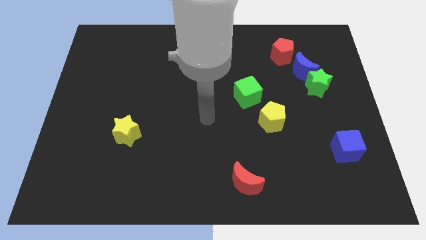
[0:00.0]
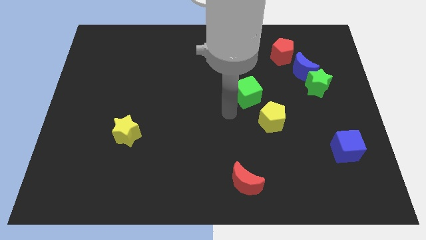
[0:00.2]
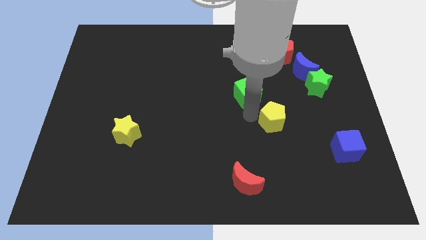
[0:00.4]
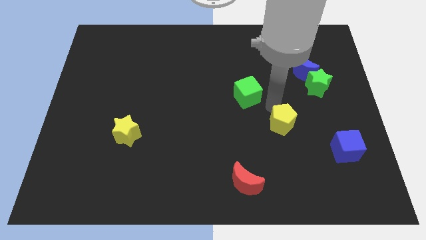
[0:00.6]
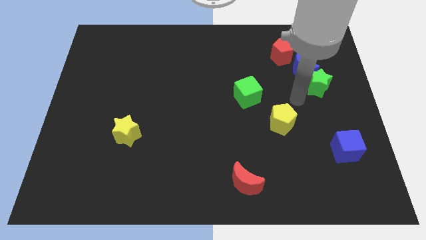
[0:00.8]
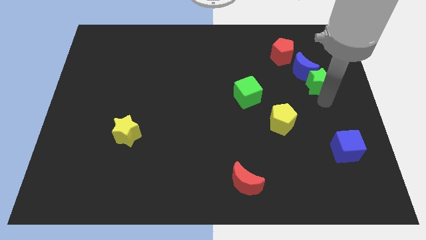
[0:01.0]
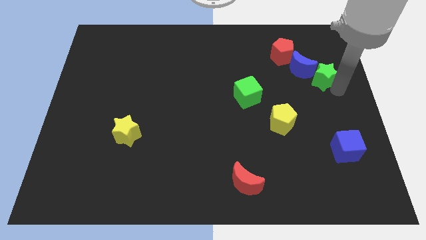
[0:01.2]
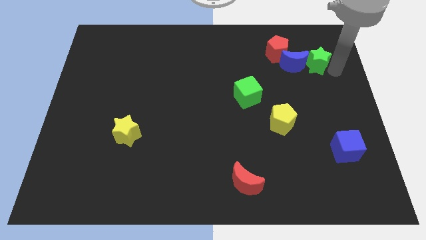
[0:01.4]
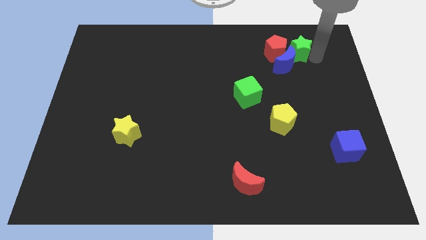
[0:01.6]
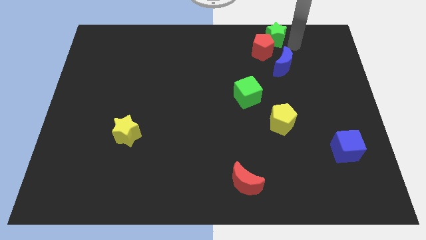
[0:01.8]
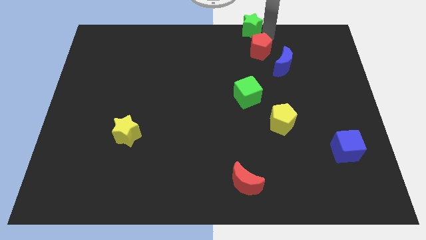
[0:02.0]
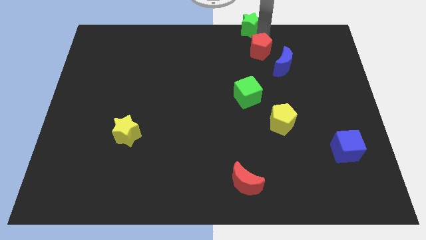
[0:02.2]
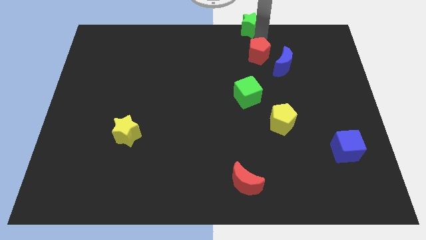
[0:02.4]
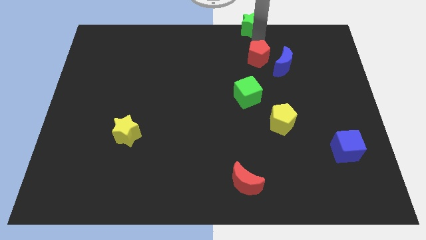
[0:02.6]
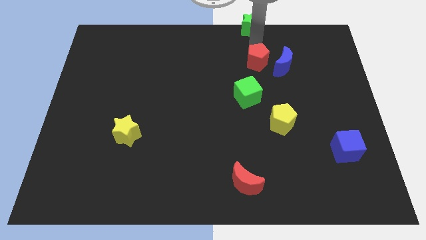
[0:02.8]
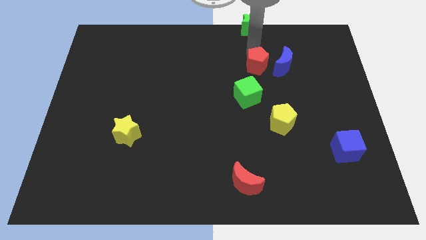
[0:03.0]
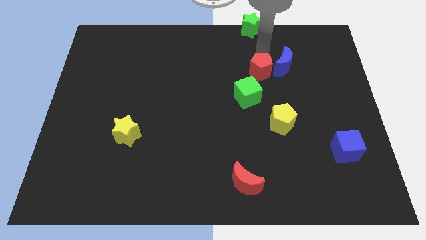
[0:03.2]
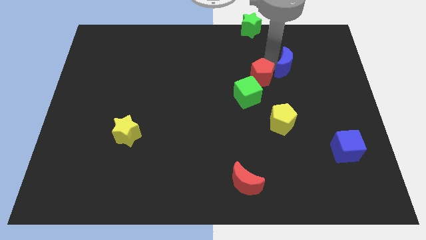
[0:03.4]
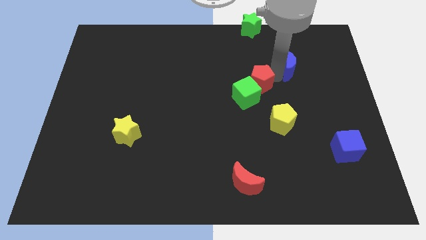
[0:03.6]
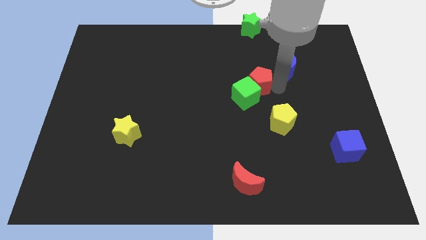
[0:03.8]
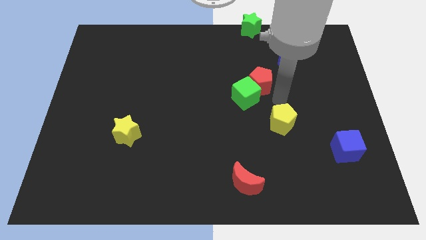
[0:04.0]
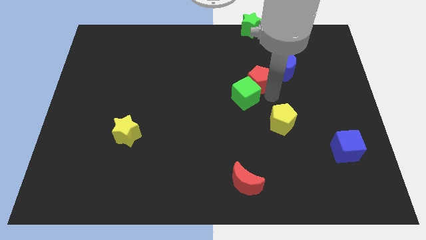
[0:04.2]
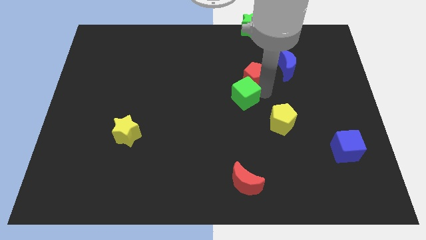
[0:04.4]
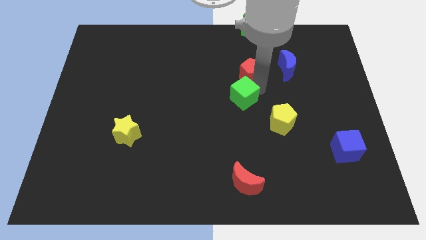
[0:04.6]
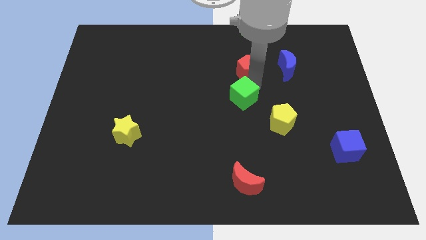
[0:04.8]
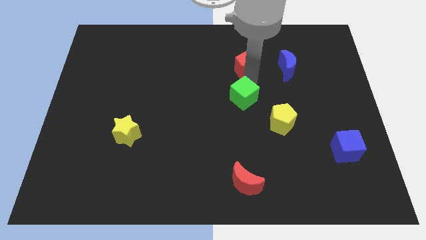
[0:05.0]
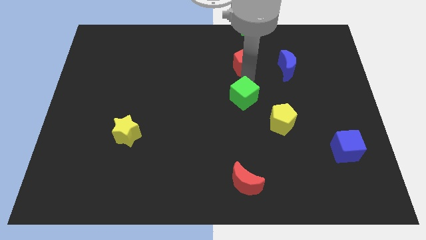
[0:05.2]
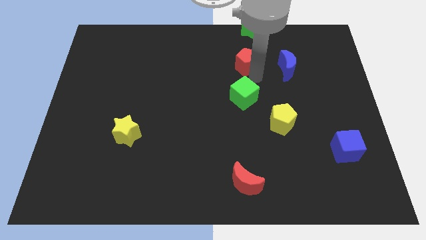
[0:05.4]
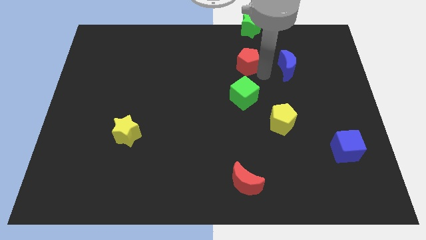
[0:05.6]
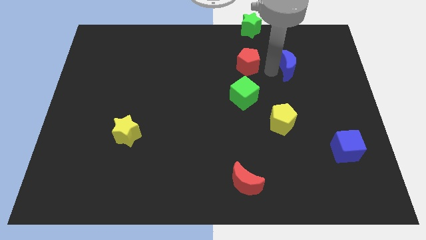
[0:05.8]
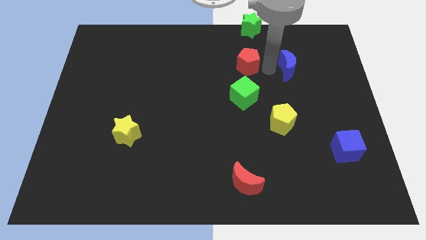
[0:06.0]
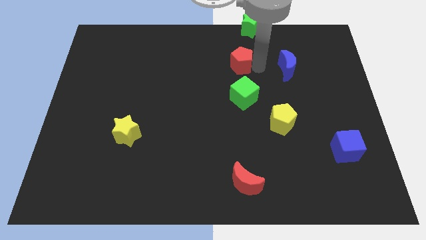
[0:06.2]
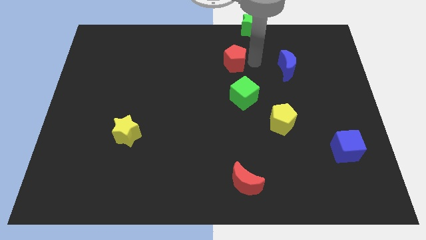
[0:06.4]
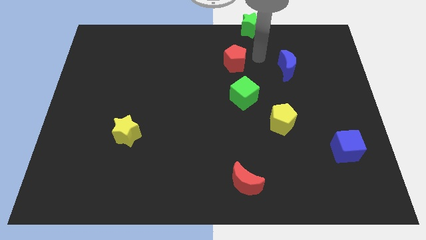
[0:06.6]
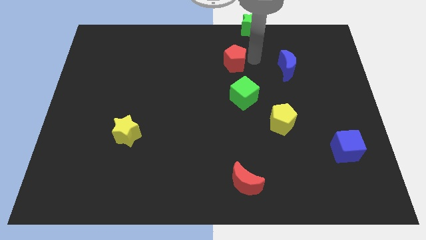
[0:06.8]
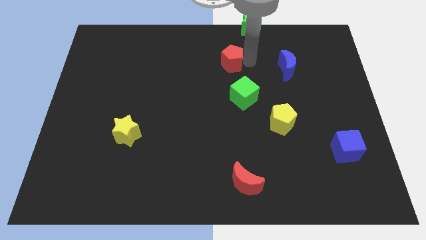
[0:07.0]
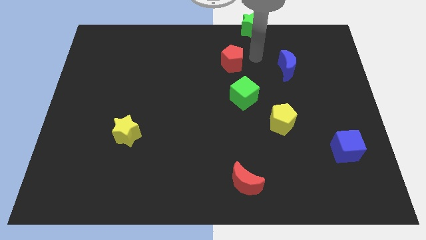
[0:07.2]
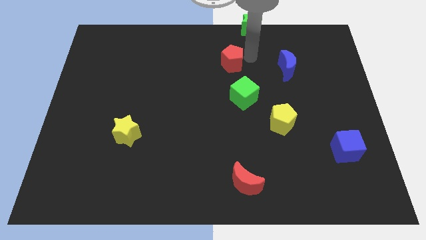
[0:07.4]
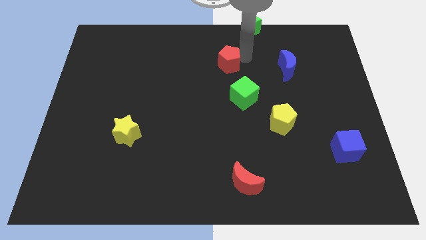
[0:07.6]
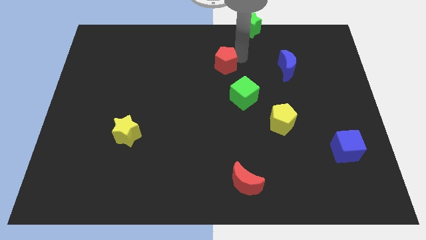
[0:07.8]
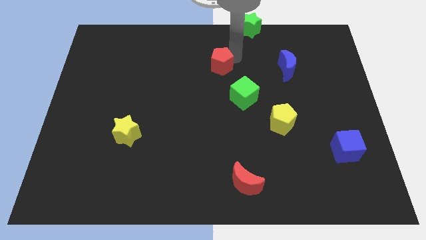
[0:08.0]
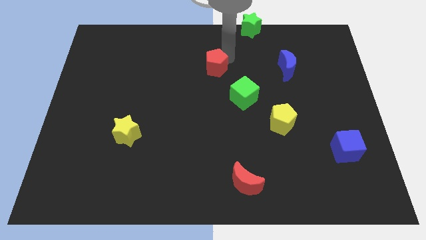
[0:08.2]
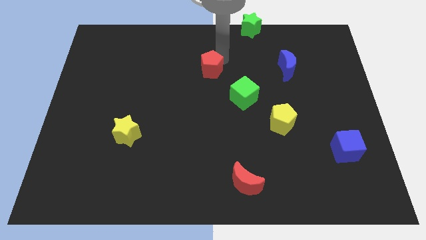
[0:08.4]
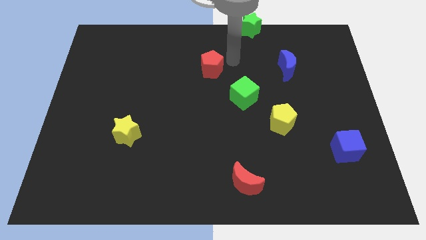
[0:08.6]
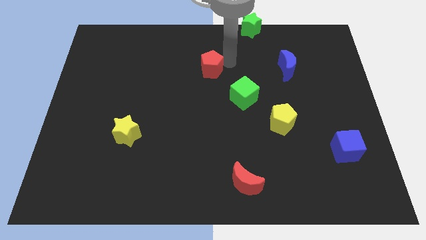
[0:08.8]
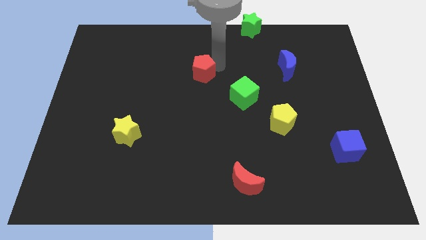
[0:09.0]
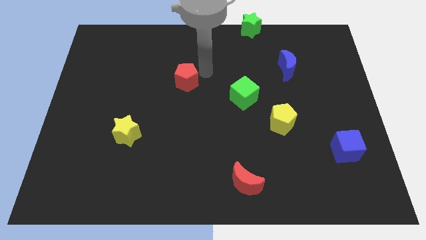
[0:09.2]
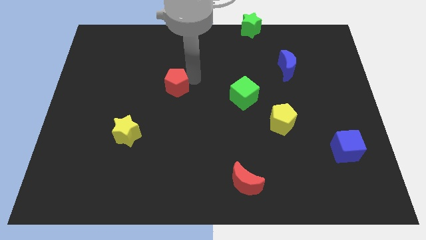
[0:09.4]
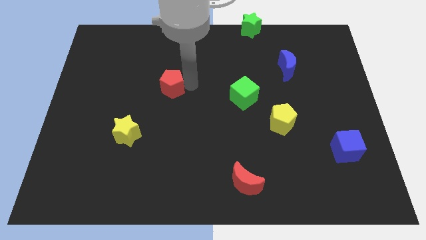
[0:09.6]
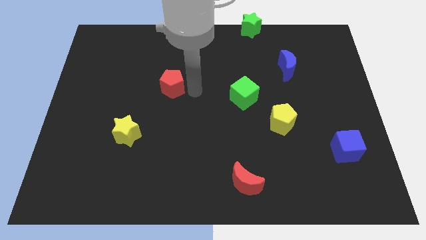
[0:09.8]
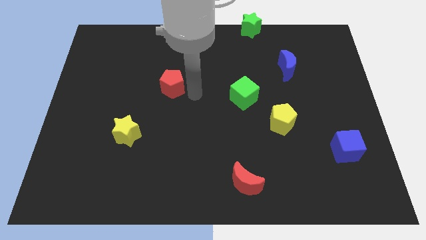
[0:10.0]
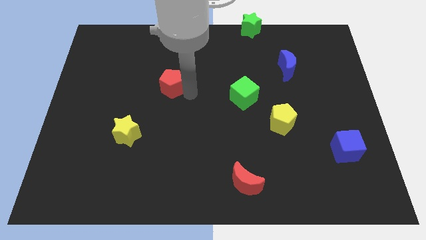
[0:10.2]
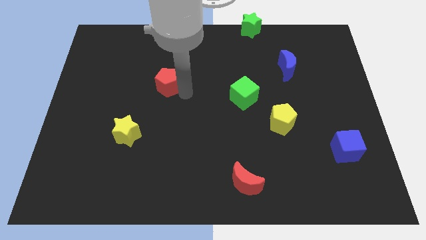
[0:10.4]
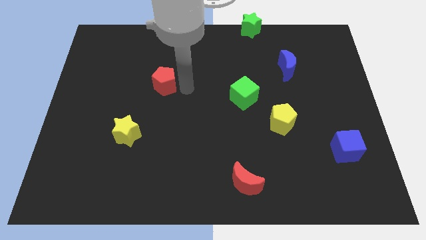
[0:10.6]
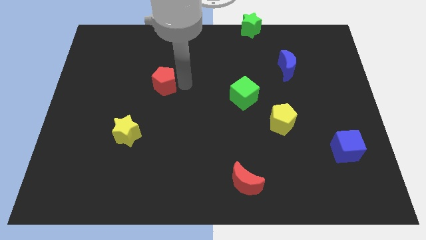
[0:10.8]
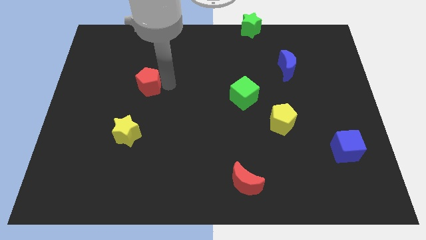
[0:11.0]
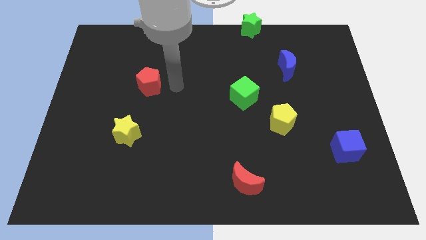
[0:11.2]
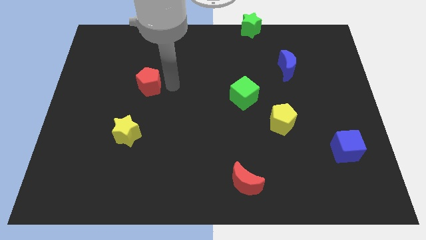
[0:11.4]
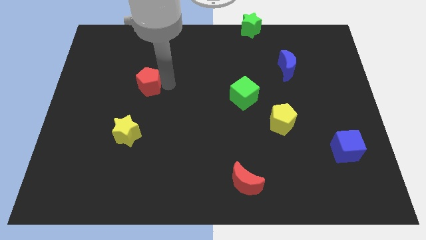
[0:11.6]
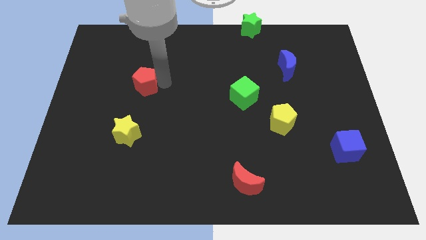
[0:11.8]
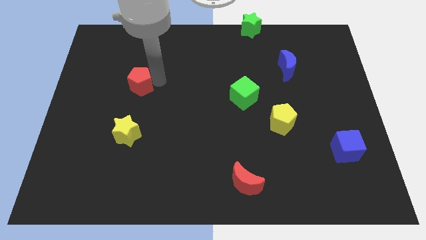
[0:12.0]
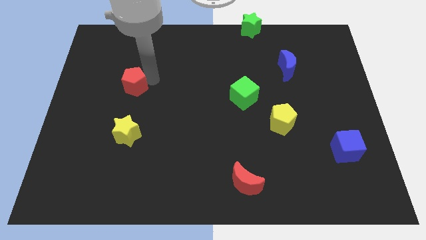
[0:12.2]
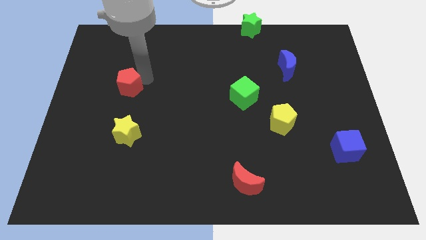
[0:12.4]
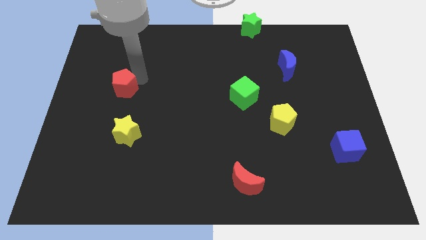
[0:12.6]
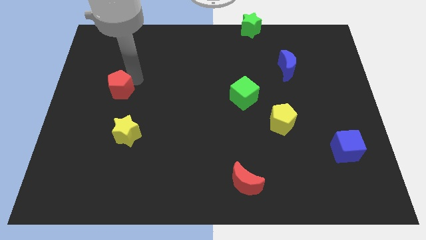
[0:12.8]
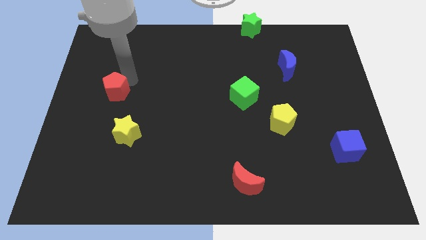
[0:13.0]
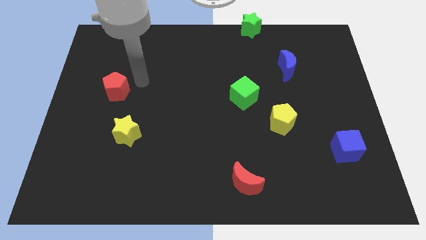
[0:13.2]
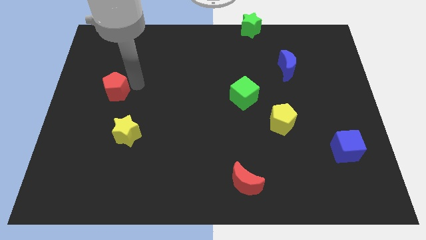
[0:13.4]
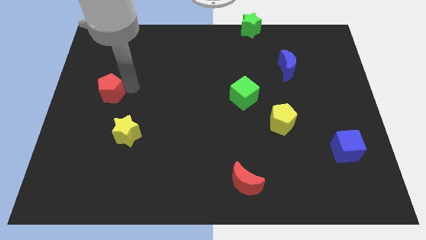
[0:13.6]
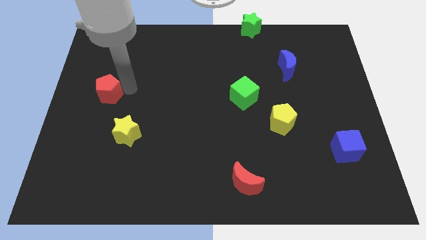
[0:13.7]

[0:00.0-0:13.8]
put the red pentagon to the left side of the board
